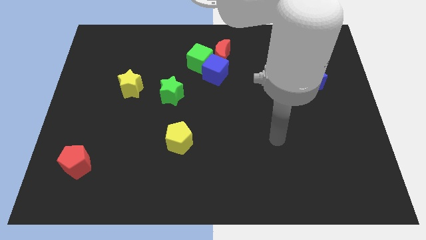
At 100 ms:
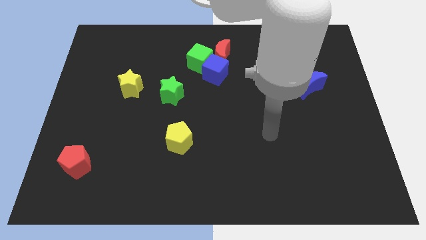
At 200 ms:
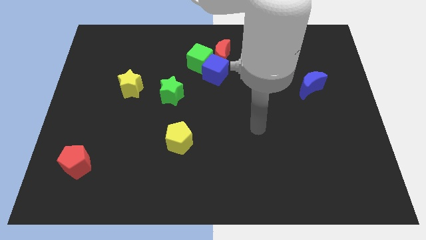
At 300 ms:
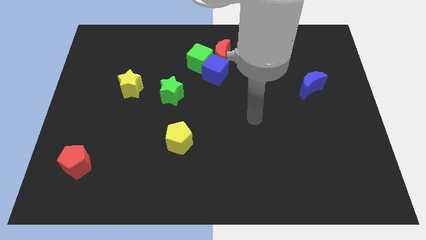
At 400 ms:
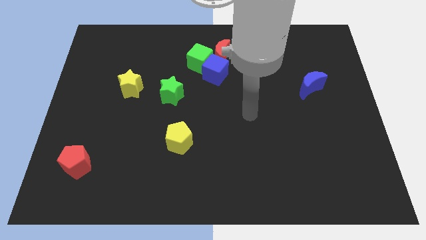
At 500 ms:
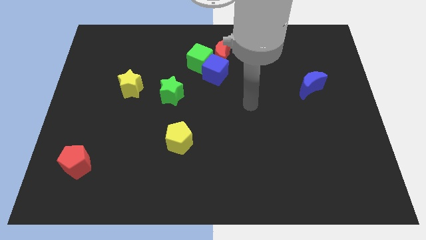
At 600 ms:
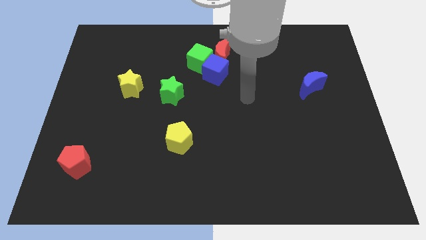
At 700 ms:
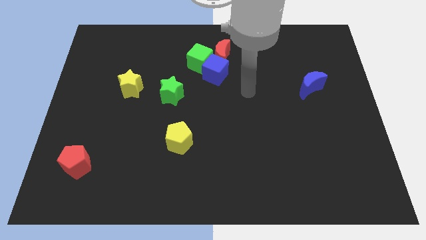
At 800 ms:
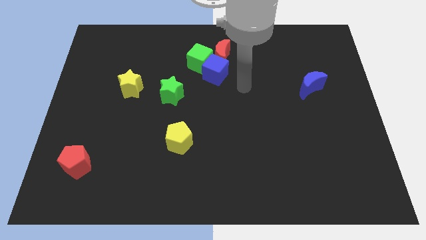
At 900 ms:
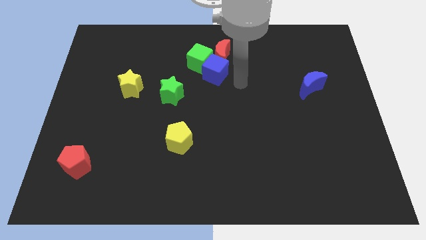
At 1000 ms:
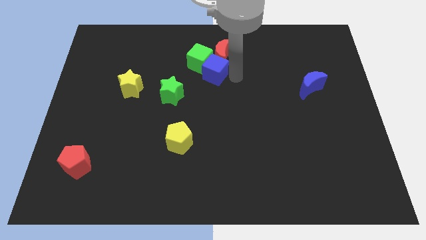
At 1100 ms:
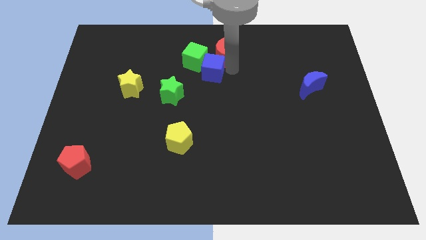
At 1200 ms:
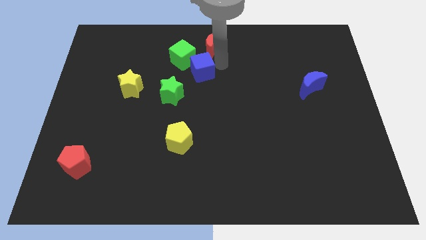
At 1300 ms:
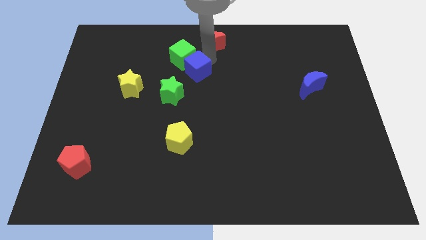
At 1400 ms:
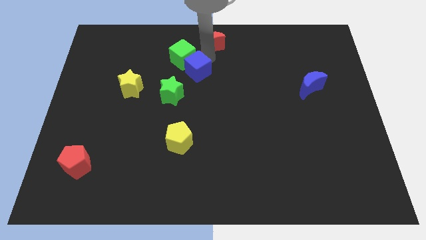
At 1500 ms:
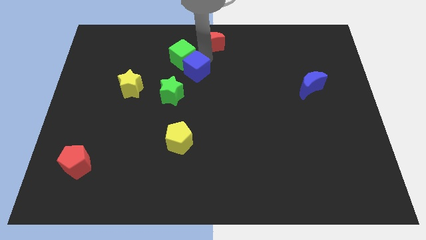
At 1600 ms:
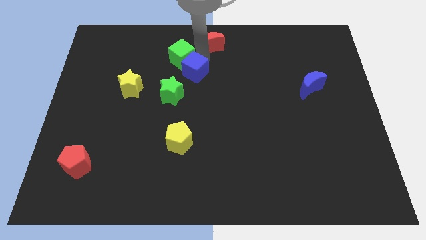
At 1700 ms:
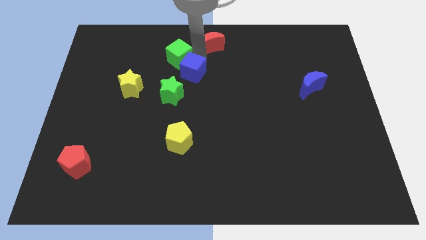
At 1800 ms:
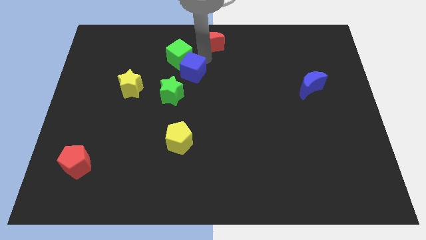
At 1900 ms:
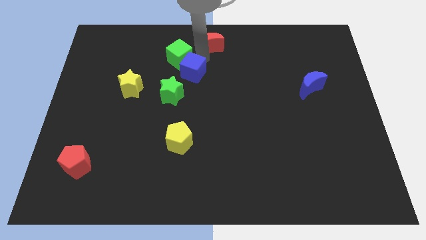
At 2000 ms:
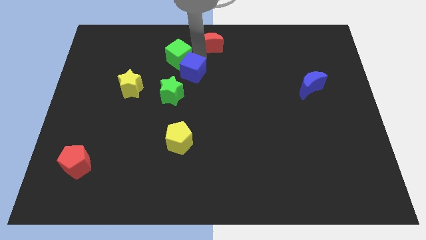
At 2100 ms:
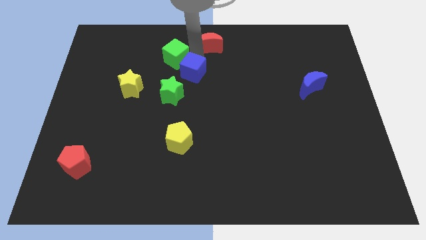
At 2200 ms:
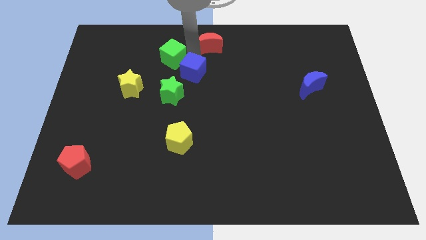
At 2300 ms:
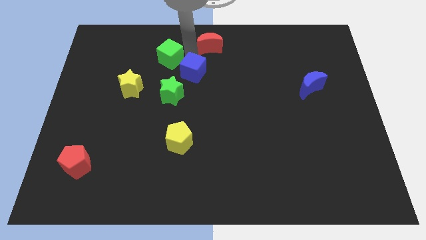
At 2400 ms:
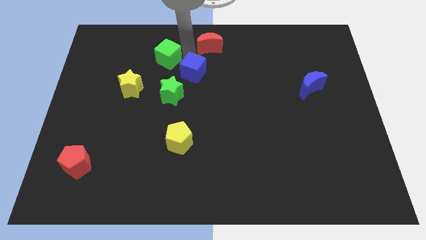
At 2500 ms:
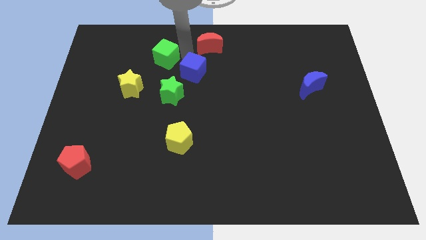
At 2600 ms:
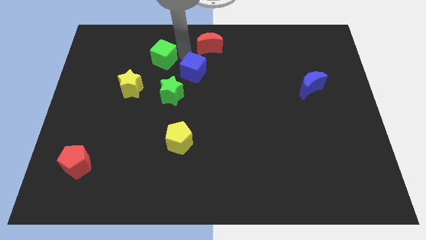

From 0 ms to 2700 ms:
pull the green cube apart from the blue cube and red moon

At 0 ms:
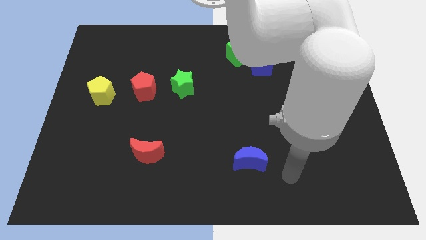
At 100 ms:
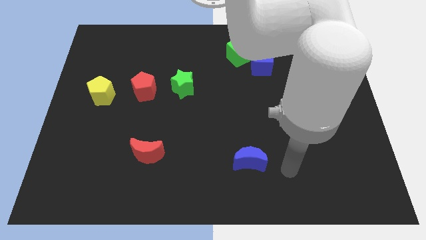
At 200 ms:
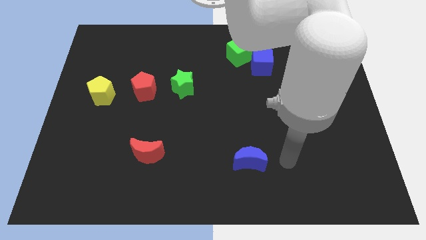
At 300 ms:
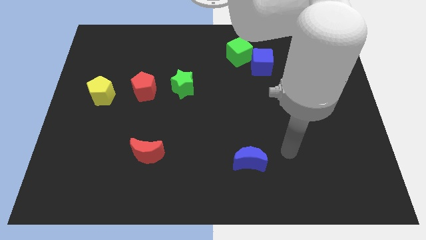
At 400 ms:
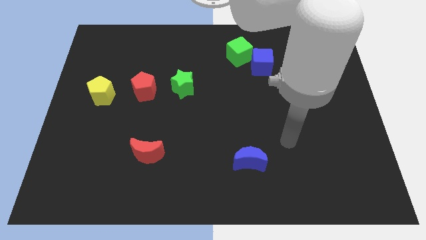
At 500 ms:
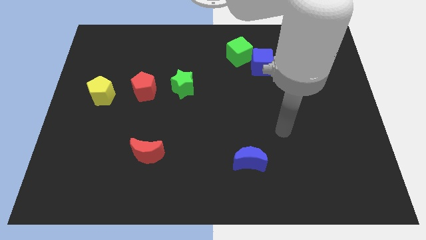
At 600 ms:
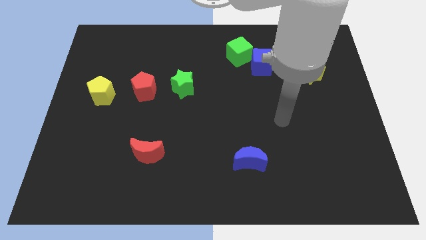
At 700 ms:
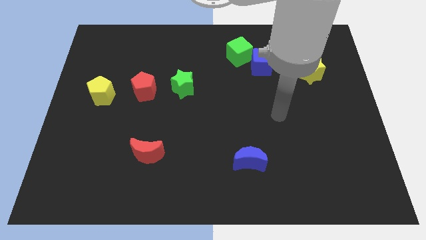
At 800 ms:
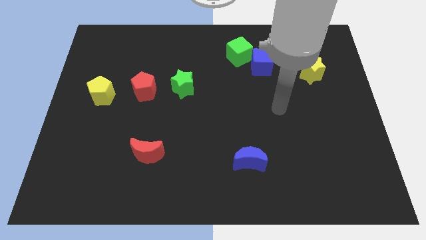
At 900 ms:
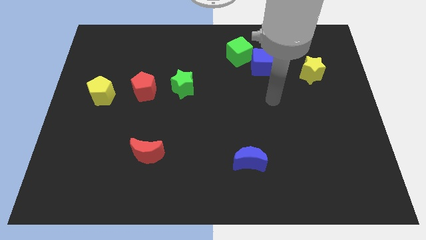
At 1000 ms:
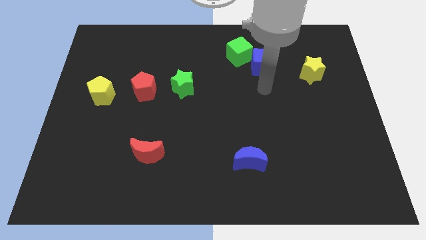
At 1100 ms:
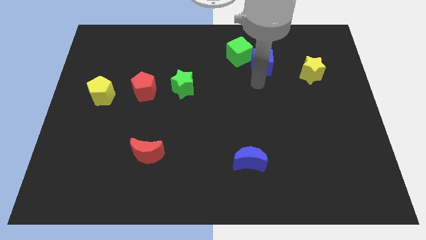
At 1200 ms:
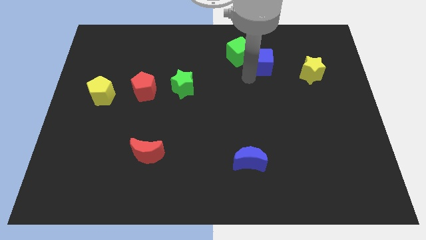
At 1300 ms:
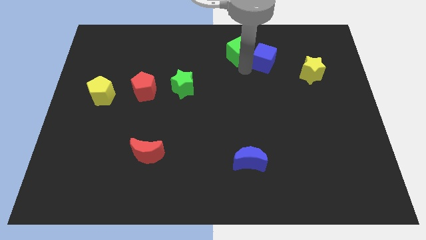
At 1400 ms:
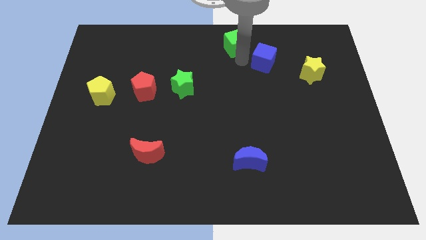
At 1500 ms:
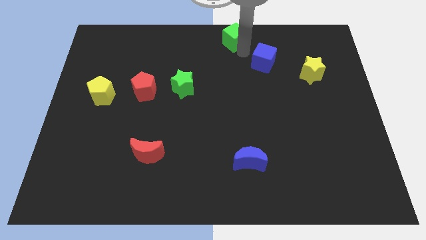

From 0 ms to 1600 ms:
pull the blue cube apart from the green cube

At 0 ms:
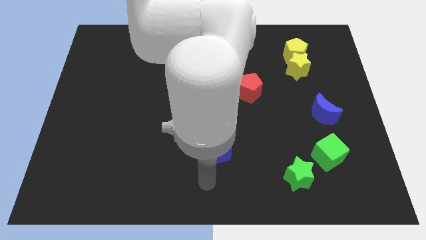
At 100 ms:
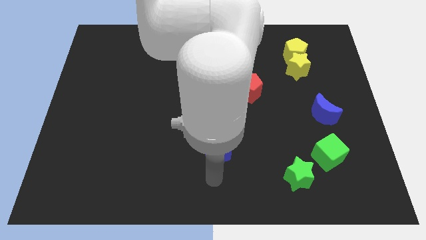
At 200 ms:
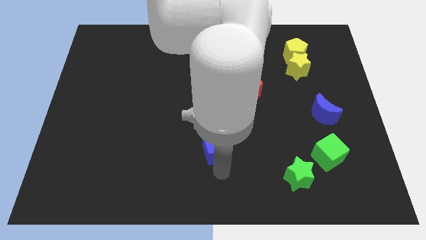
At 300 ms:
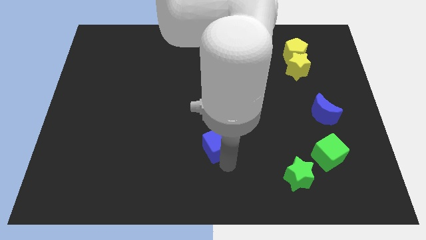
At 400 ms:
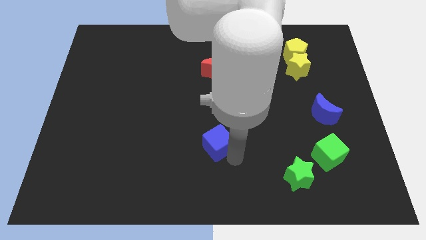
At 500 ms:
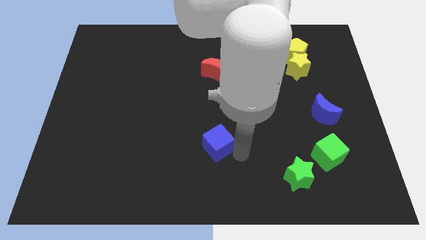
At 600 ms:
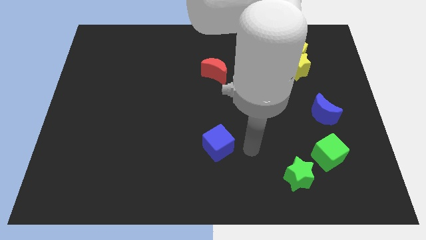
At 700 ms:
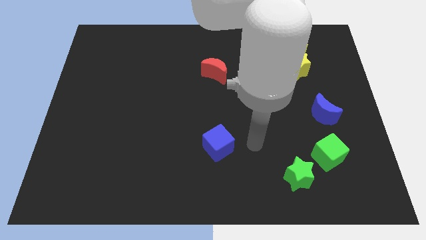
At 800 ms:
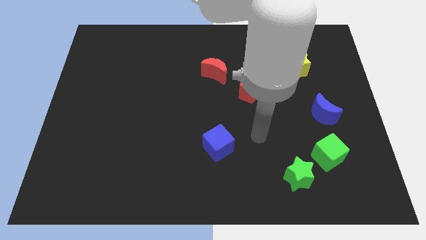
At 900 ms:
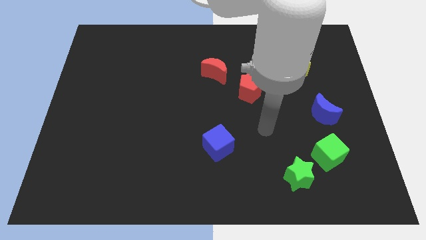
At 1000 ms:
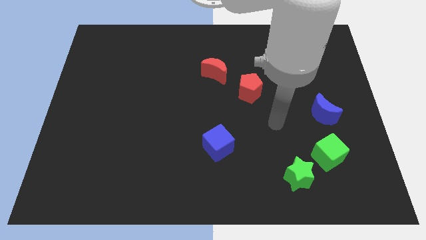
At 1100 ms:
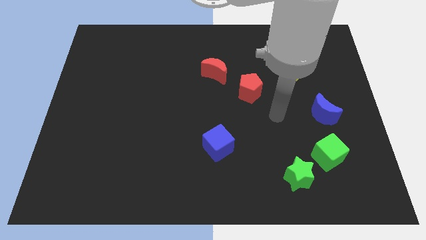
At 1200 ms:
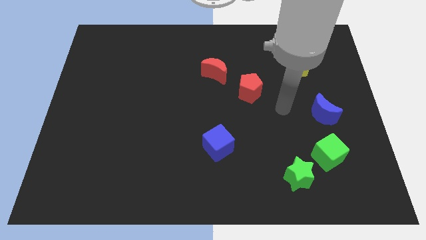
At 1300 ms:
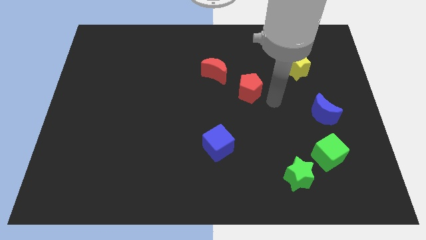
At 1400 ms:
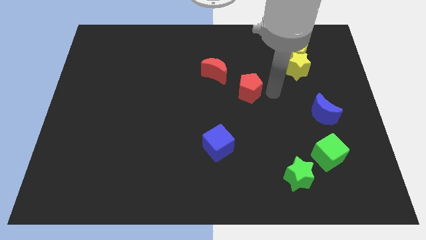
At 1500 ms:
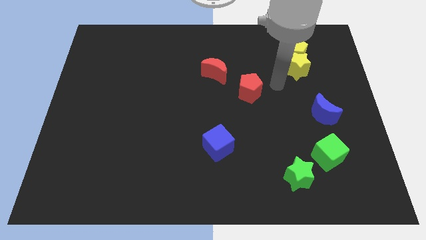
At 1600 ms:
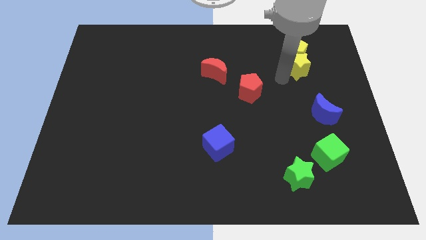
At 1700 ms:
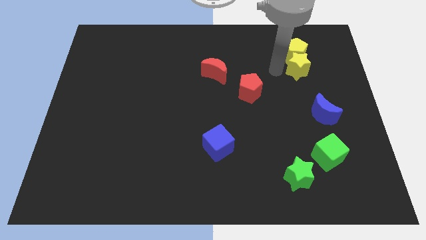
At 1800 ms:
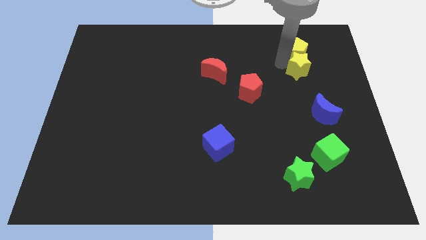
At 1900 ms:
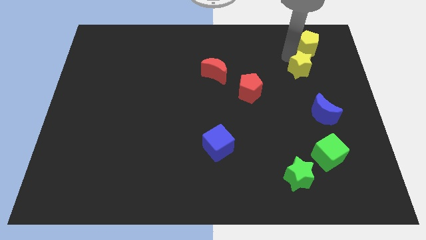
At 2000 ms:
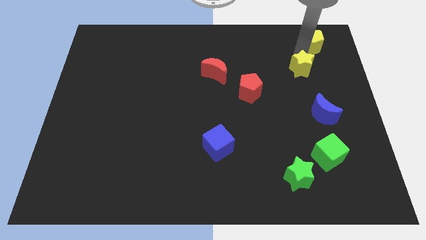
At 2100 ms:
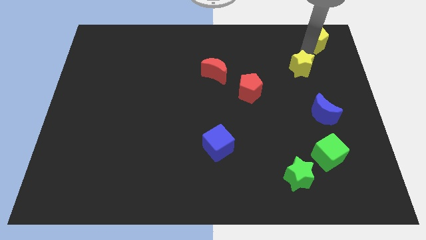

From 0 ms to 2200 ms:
pull the yellow star apart from the yellow pentagon

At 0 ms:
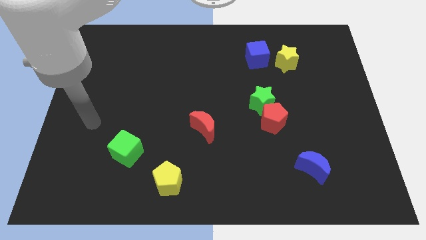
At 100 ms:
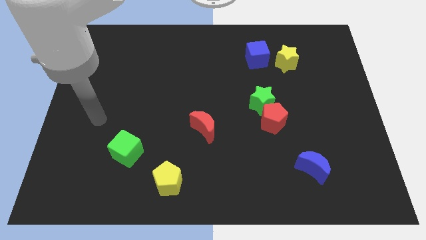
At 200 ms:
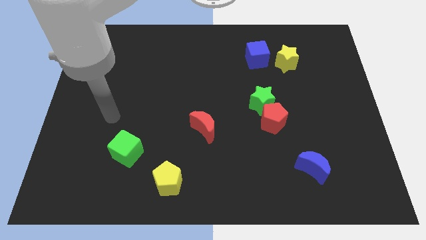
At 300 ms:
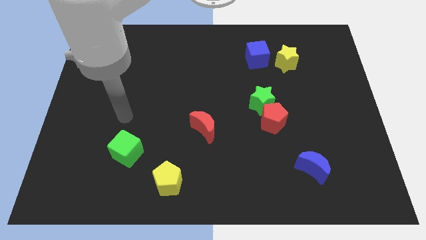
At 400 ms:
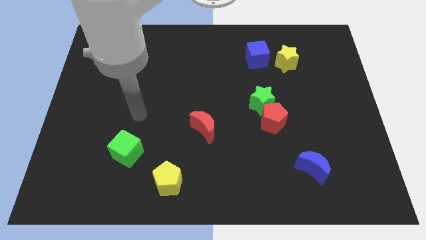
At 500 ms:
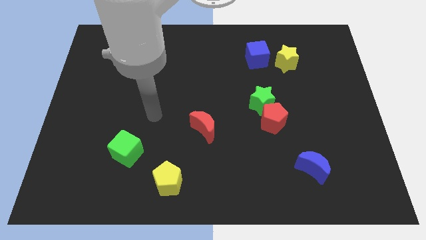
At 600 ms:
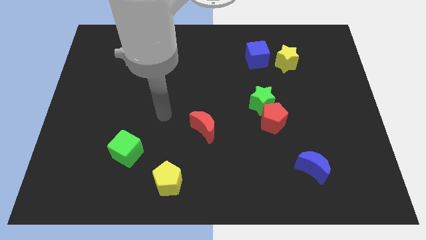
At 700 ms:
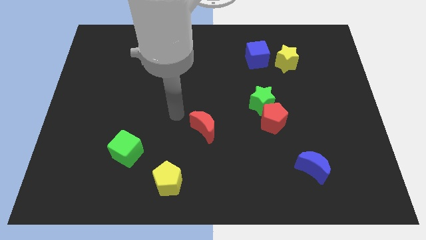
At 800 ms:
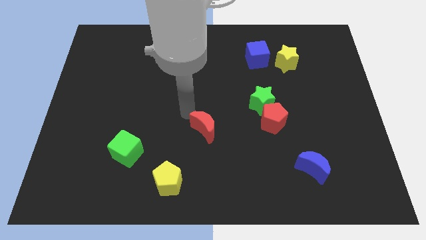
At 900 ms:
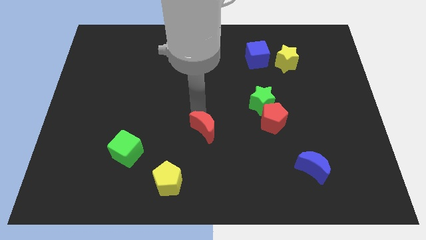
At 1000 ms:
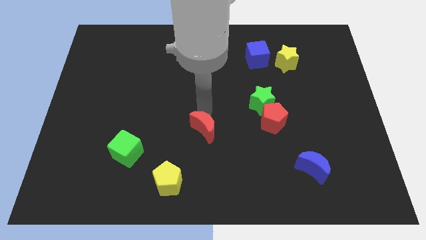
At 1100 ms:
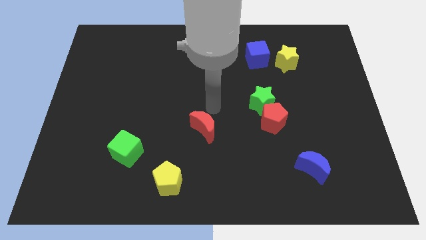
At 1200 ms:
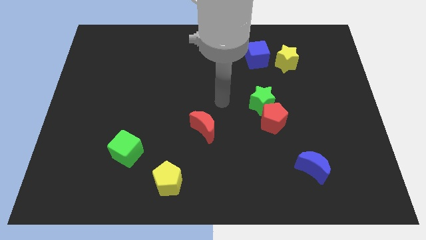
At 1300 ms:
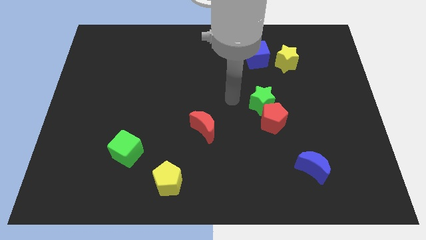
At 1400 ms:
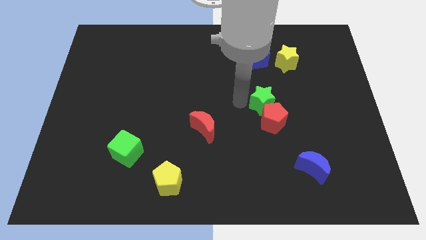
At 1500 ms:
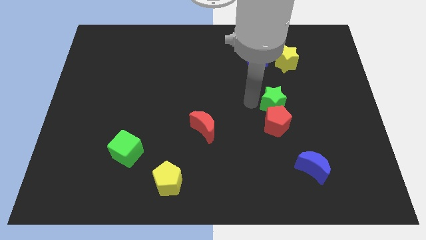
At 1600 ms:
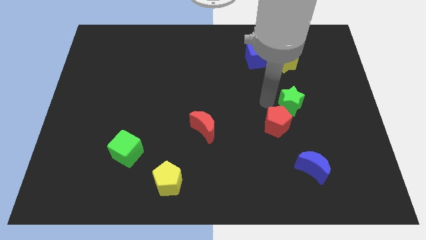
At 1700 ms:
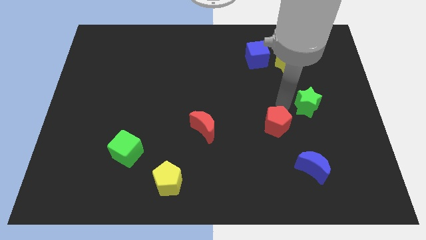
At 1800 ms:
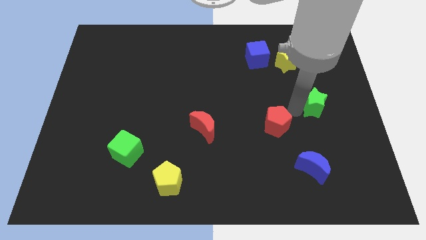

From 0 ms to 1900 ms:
pull the red pentagon apart from the green star

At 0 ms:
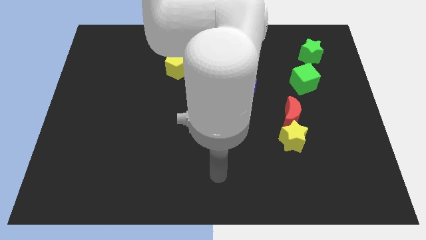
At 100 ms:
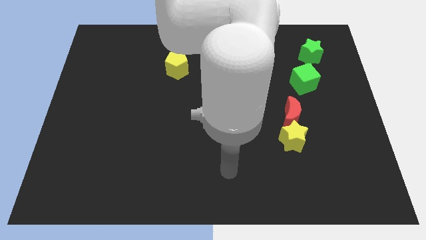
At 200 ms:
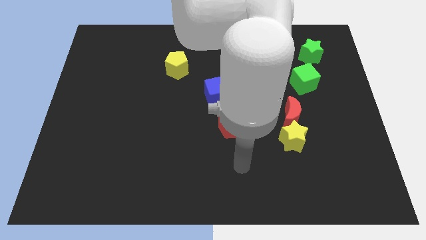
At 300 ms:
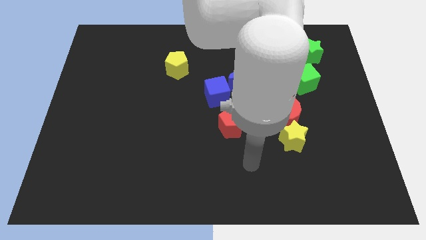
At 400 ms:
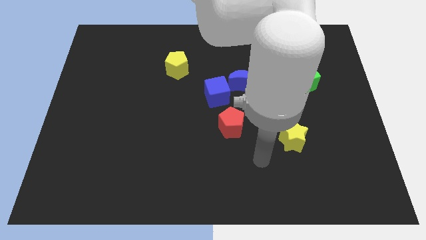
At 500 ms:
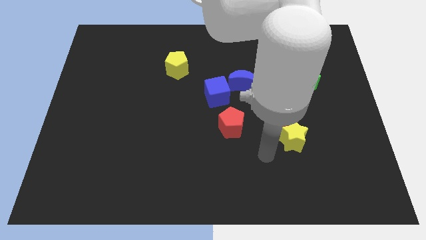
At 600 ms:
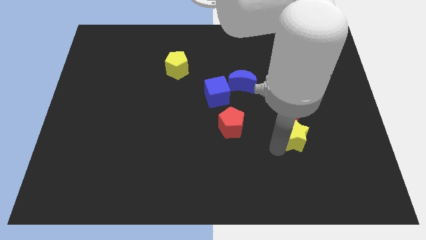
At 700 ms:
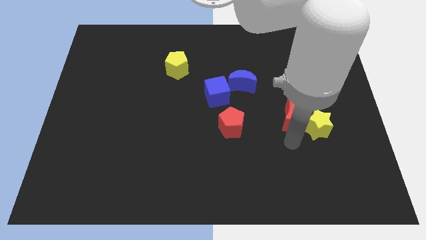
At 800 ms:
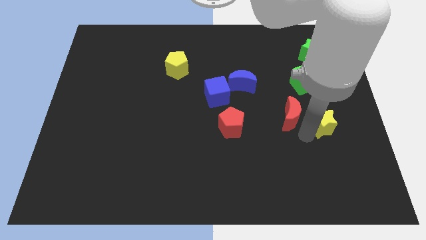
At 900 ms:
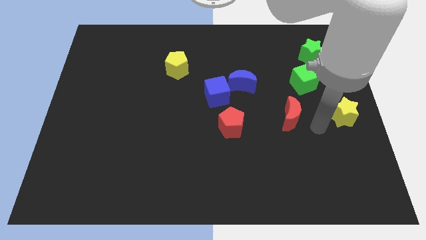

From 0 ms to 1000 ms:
separate the red moon from the yellow star
